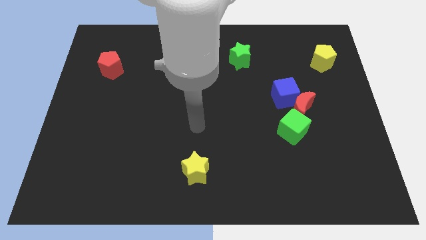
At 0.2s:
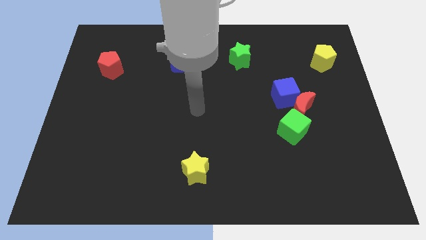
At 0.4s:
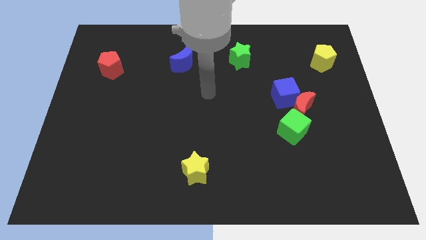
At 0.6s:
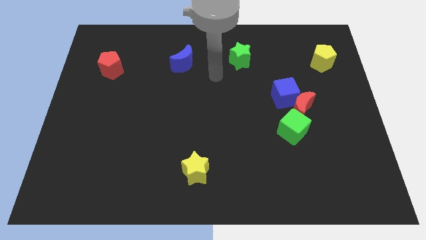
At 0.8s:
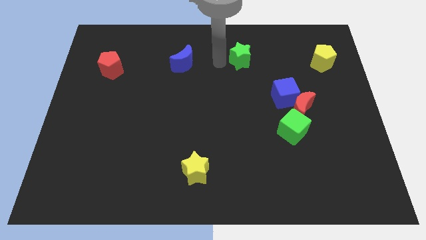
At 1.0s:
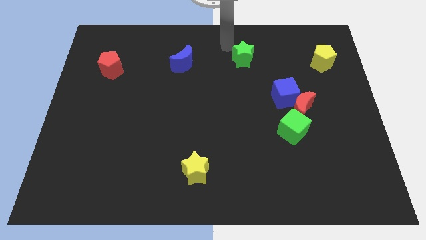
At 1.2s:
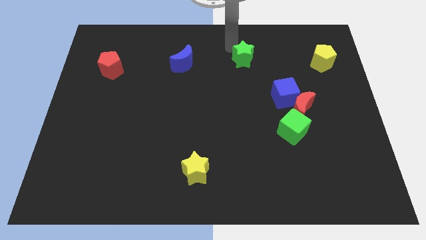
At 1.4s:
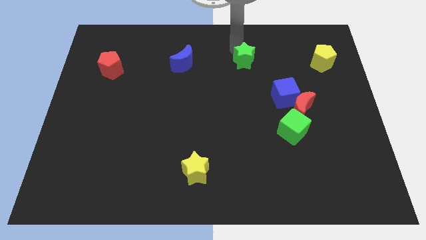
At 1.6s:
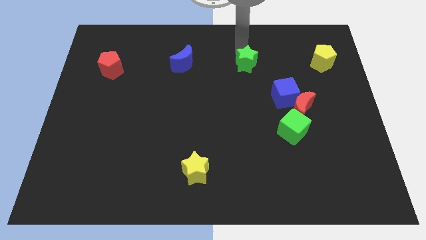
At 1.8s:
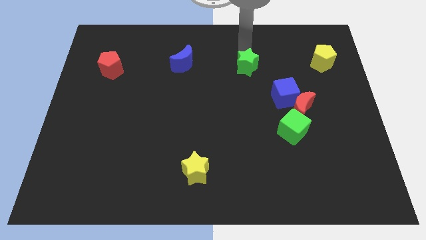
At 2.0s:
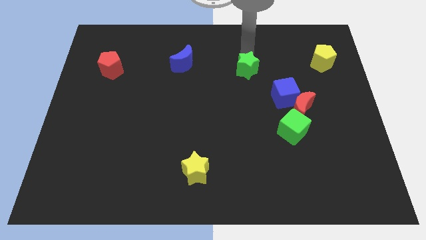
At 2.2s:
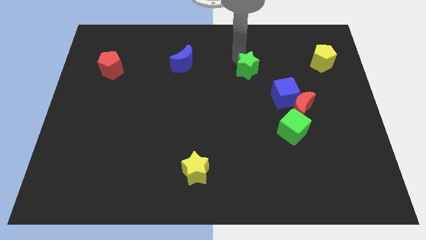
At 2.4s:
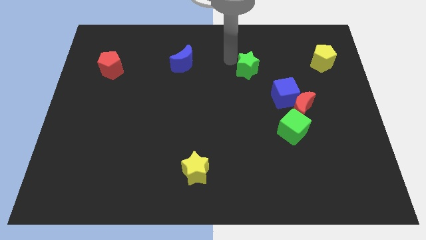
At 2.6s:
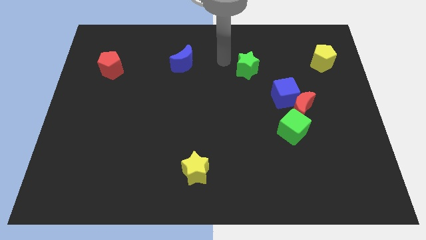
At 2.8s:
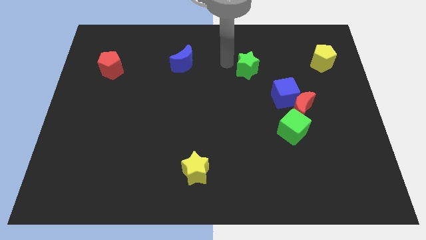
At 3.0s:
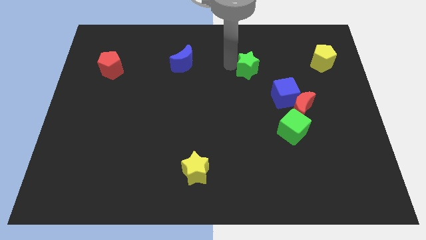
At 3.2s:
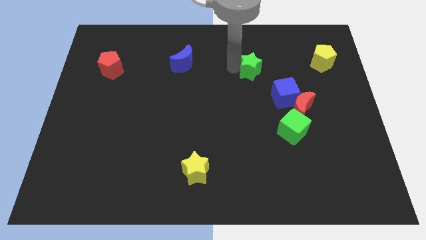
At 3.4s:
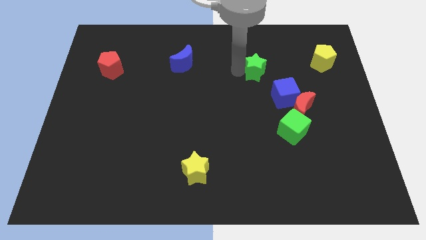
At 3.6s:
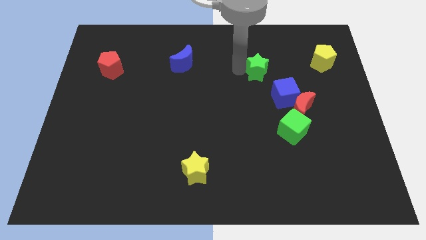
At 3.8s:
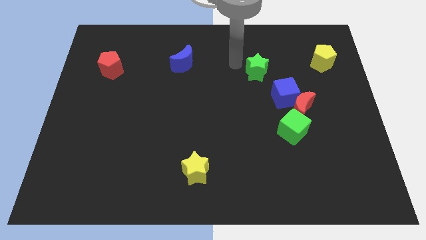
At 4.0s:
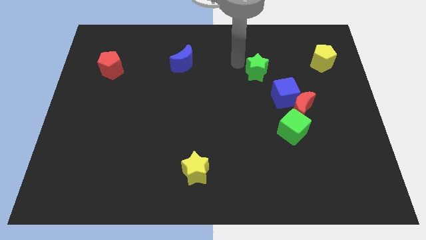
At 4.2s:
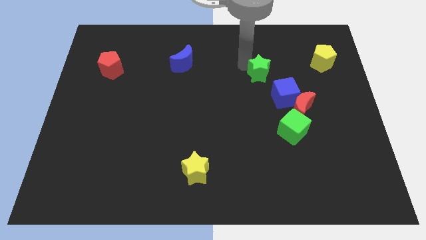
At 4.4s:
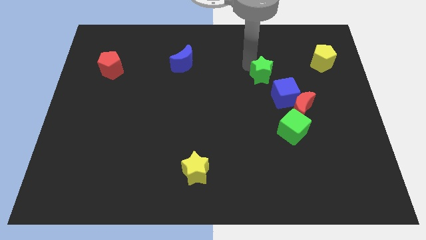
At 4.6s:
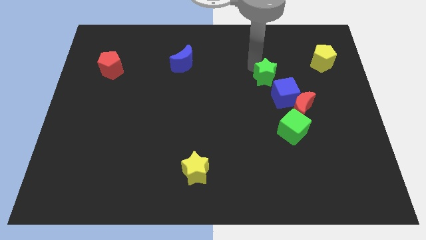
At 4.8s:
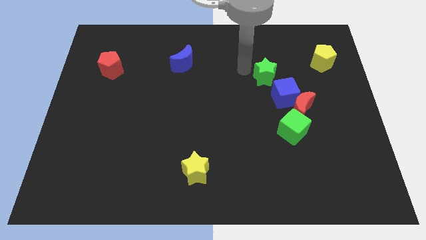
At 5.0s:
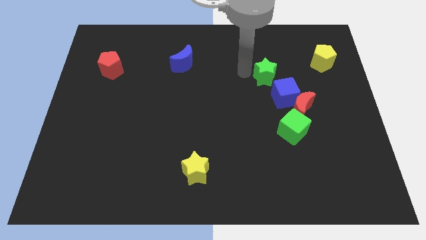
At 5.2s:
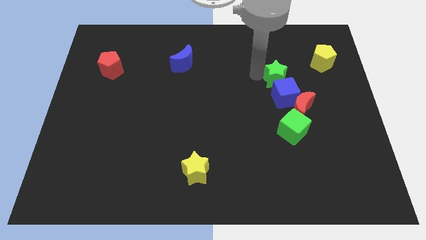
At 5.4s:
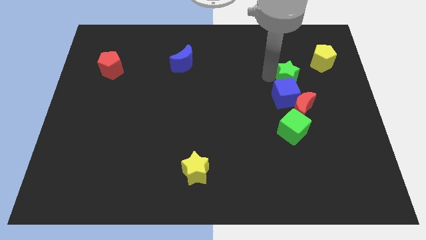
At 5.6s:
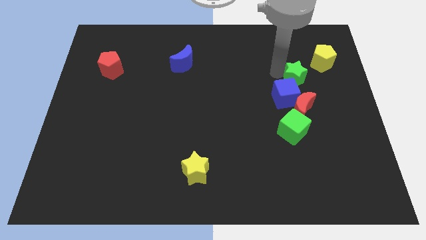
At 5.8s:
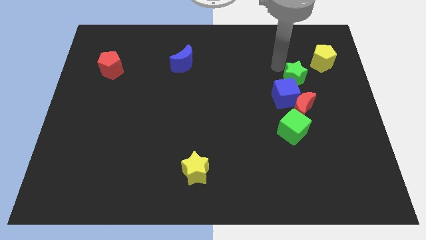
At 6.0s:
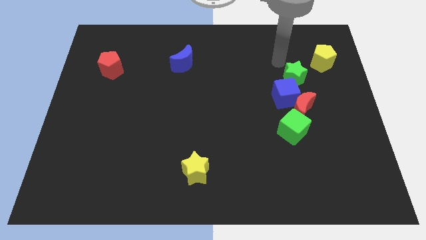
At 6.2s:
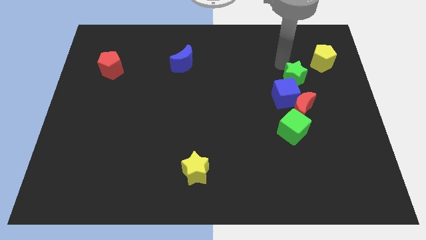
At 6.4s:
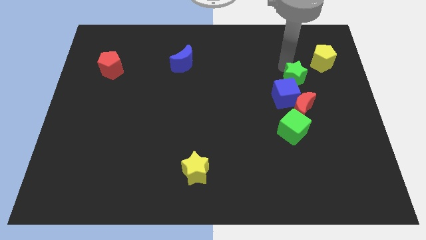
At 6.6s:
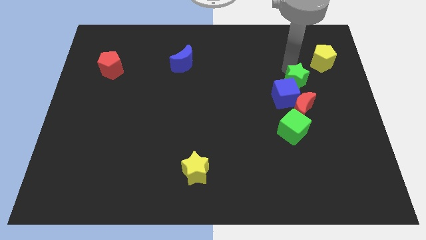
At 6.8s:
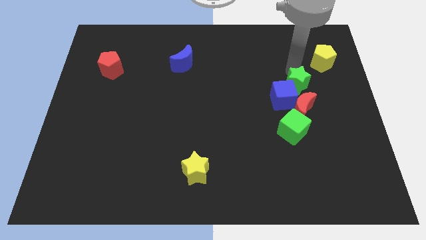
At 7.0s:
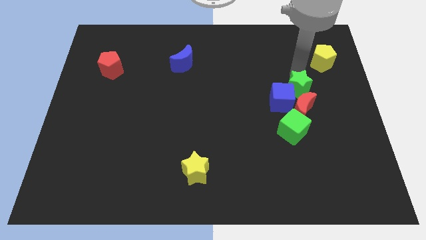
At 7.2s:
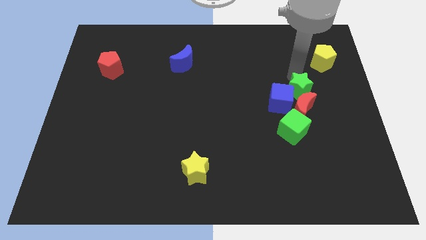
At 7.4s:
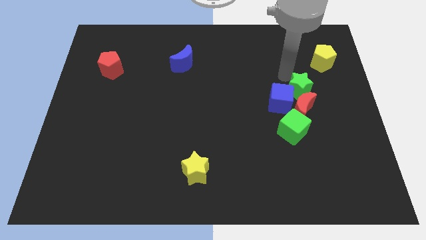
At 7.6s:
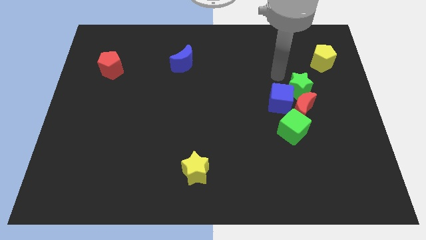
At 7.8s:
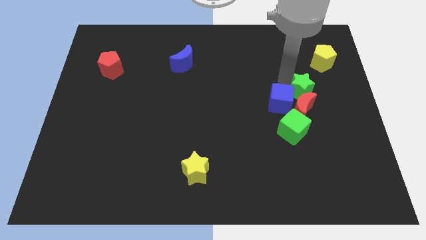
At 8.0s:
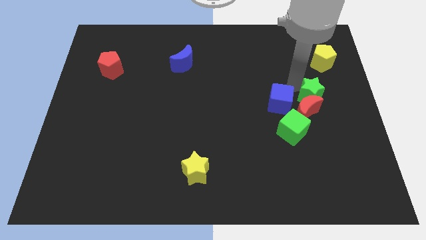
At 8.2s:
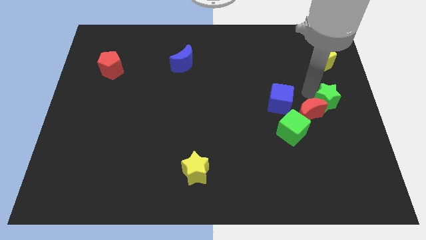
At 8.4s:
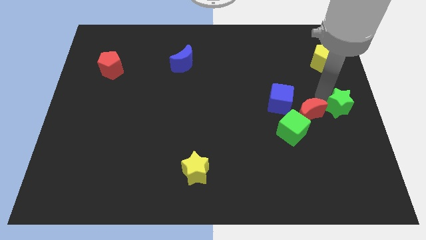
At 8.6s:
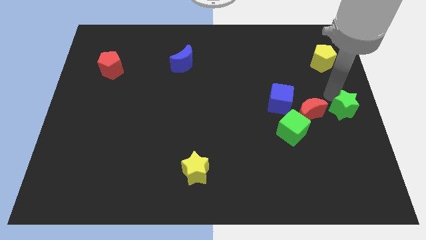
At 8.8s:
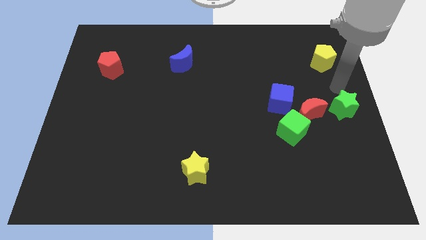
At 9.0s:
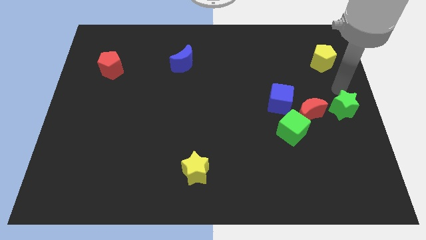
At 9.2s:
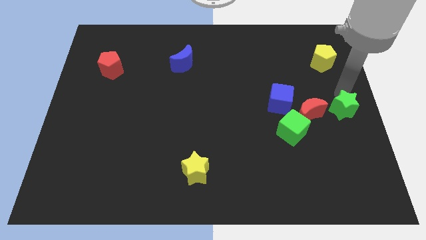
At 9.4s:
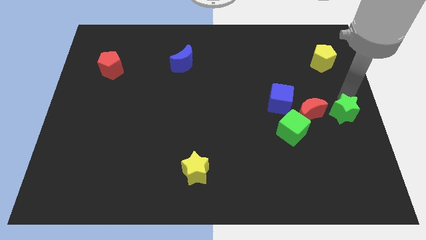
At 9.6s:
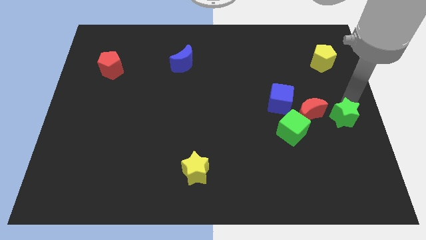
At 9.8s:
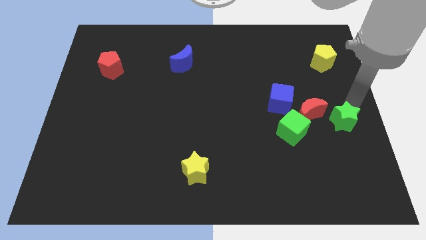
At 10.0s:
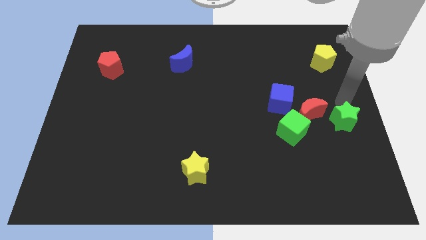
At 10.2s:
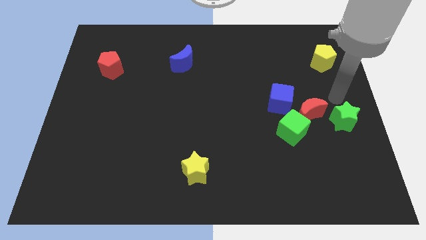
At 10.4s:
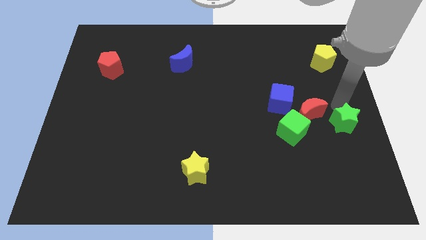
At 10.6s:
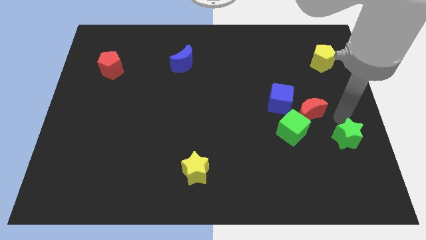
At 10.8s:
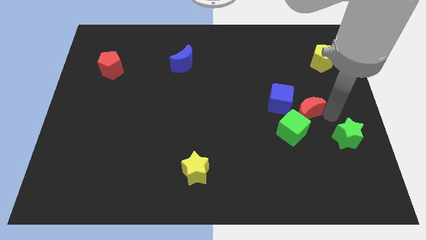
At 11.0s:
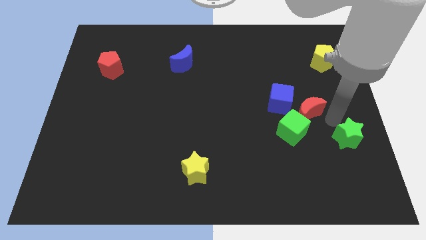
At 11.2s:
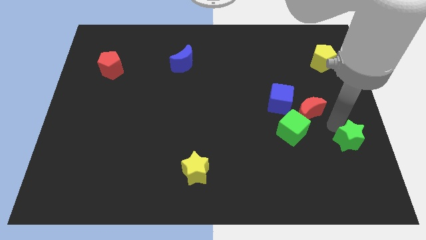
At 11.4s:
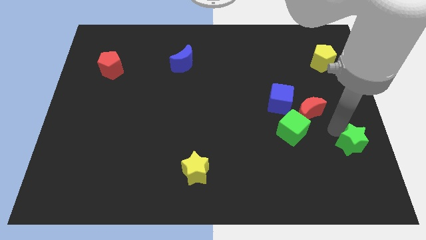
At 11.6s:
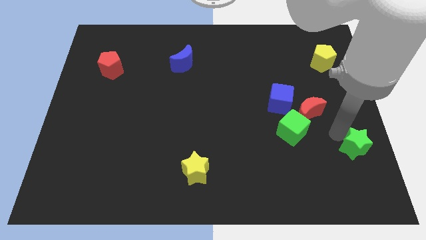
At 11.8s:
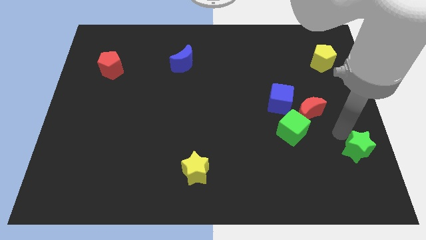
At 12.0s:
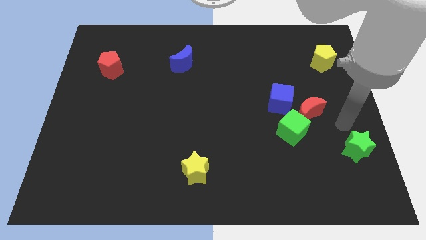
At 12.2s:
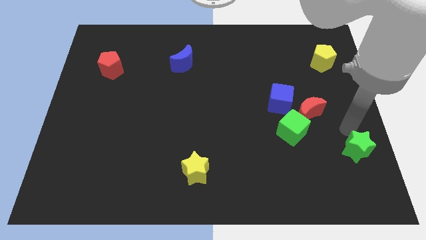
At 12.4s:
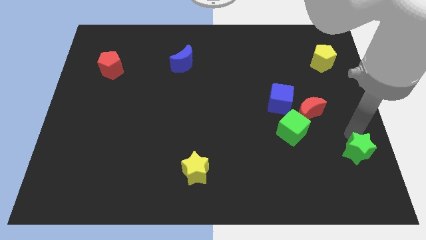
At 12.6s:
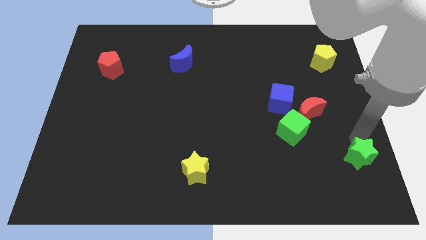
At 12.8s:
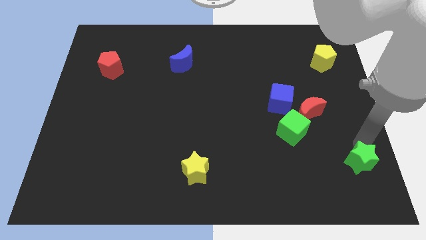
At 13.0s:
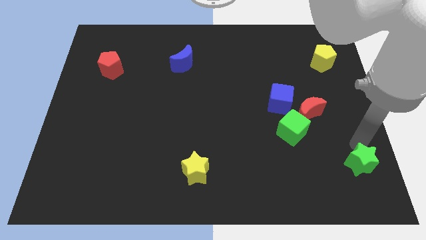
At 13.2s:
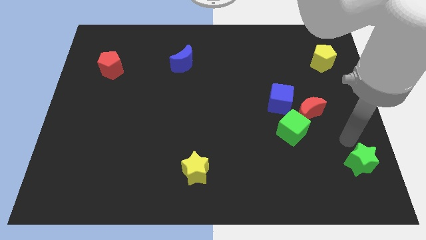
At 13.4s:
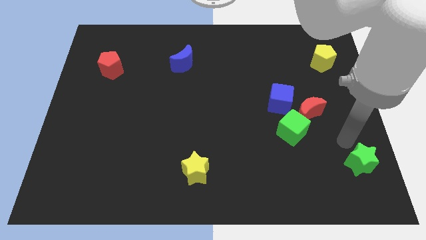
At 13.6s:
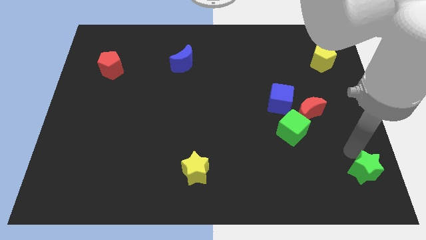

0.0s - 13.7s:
put the green star to the bottom right
